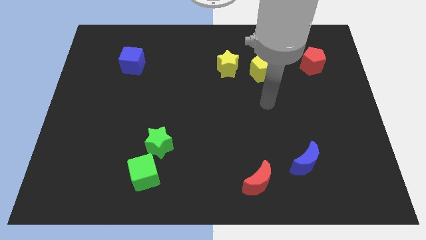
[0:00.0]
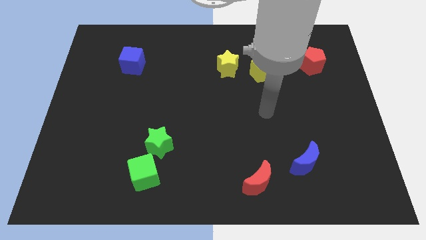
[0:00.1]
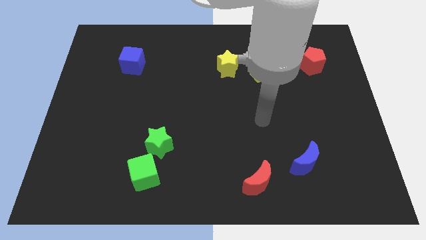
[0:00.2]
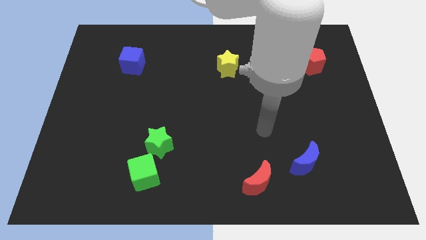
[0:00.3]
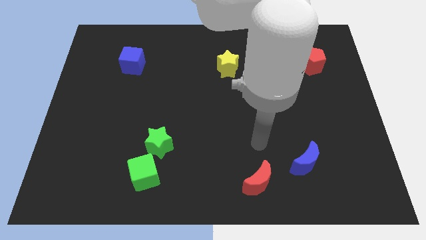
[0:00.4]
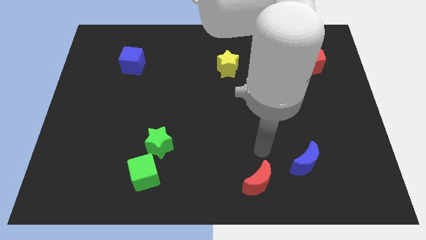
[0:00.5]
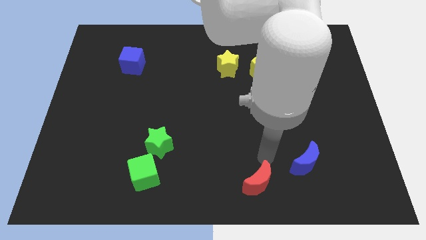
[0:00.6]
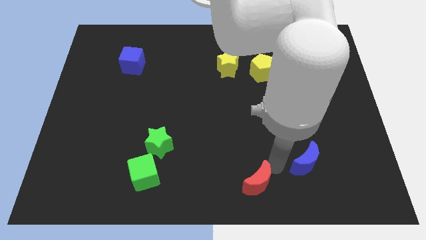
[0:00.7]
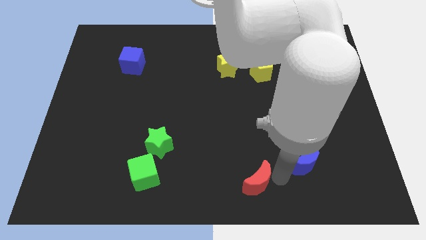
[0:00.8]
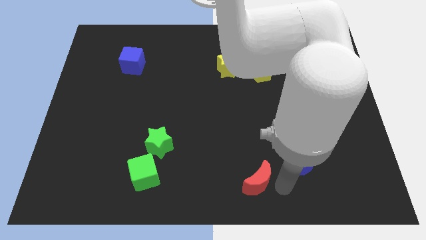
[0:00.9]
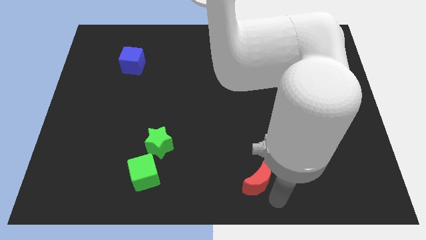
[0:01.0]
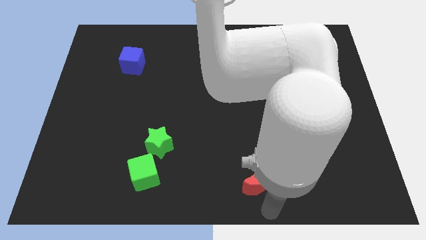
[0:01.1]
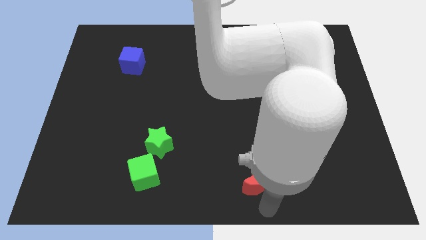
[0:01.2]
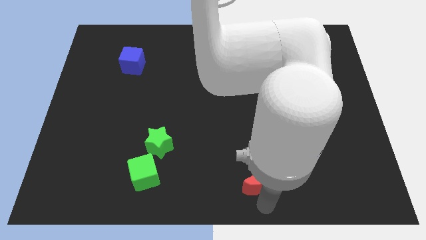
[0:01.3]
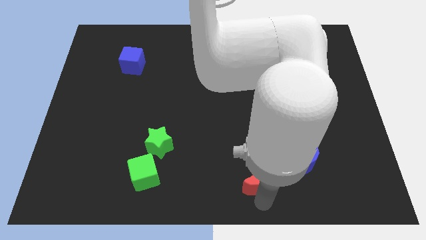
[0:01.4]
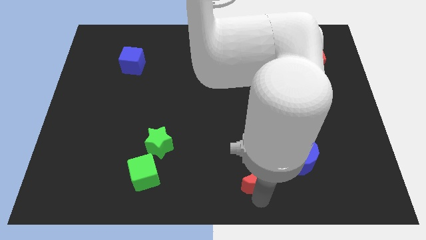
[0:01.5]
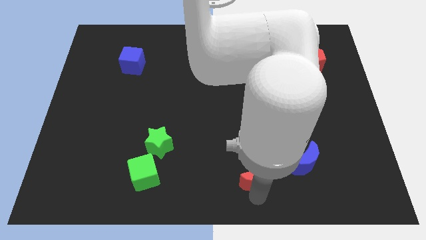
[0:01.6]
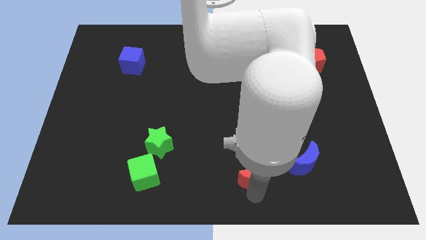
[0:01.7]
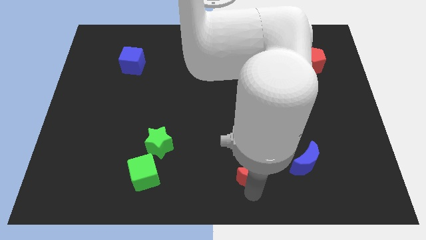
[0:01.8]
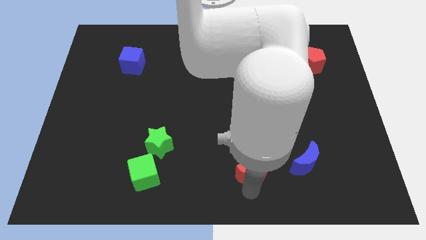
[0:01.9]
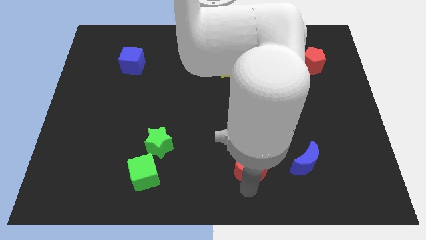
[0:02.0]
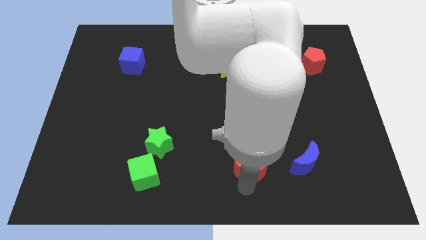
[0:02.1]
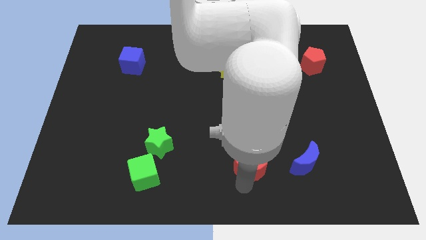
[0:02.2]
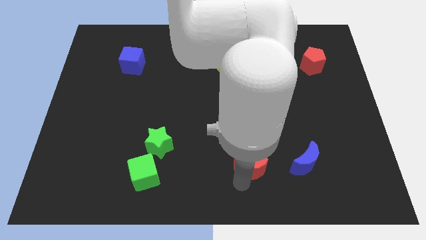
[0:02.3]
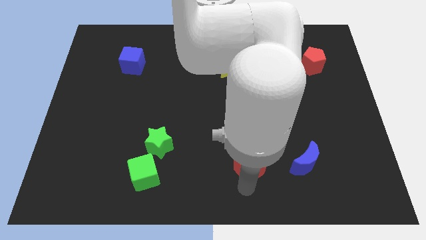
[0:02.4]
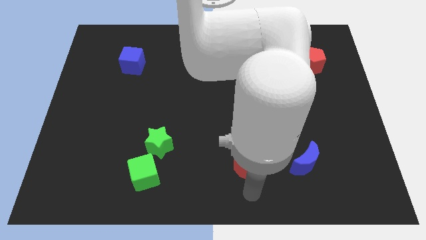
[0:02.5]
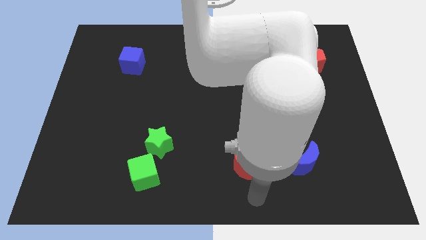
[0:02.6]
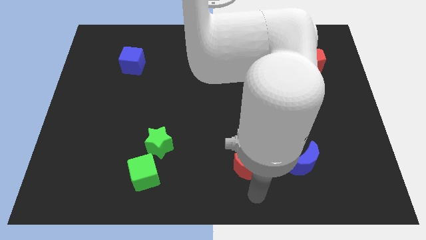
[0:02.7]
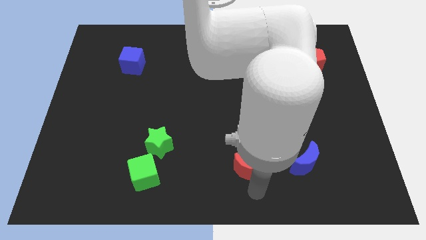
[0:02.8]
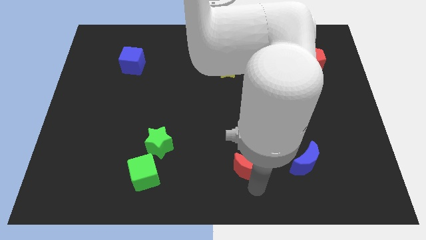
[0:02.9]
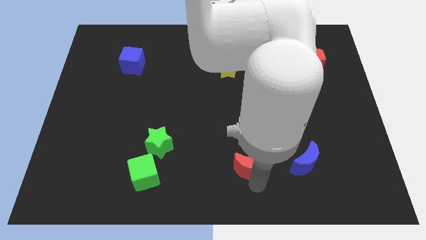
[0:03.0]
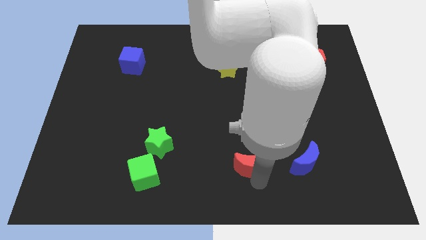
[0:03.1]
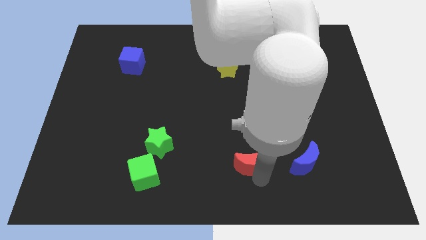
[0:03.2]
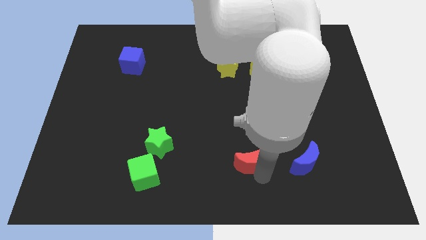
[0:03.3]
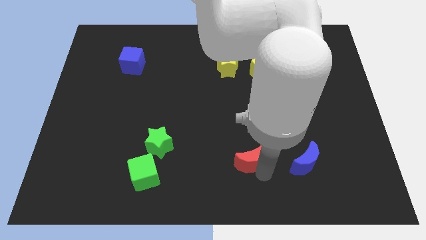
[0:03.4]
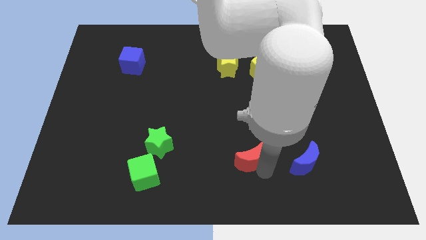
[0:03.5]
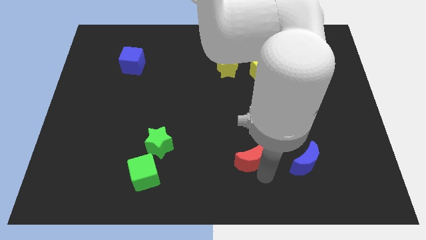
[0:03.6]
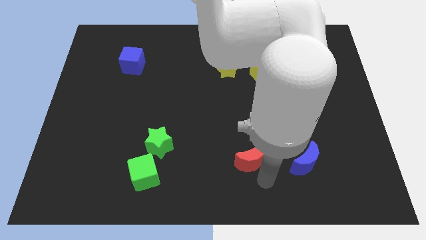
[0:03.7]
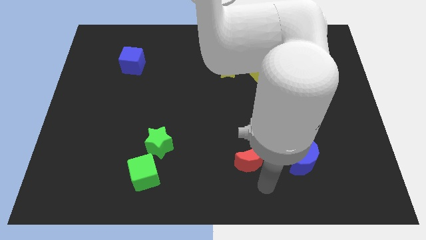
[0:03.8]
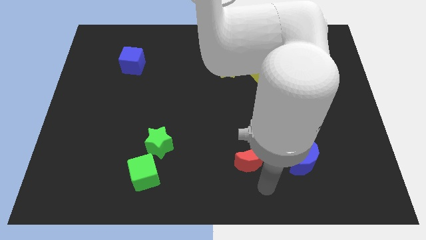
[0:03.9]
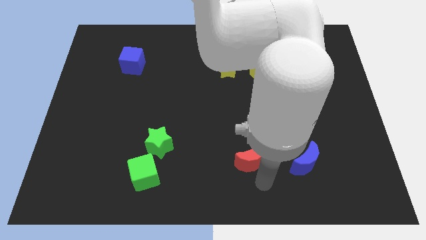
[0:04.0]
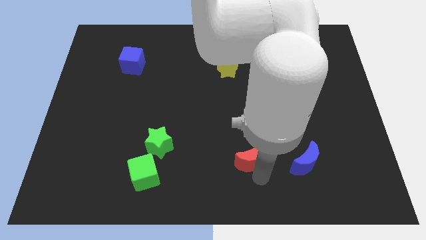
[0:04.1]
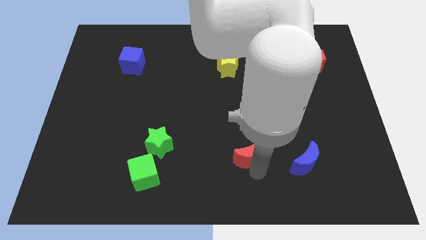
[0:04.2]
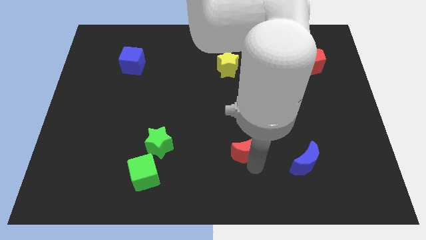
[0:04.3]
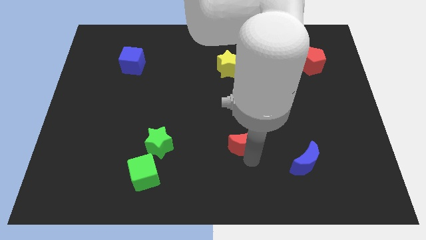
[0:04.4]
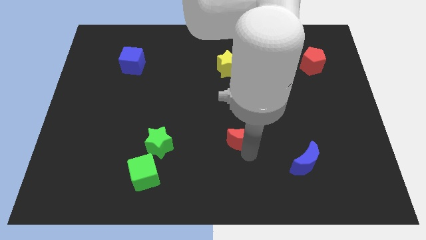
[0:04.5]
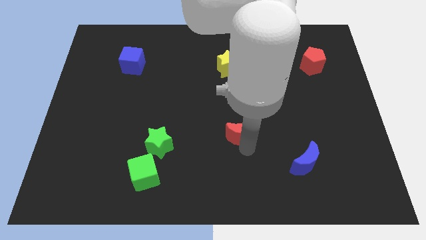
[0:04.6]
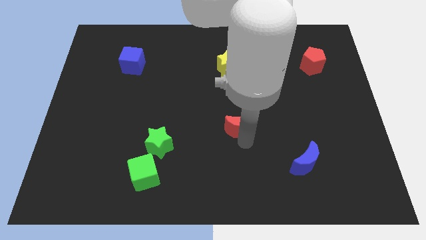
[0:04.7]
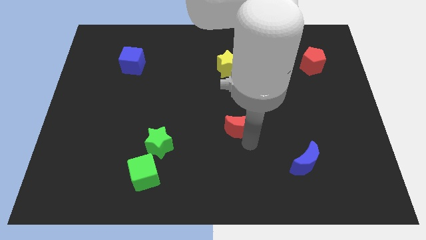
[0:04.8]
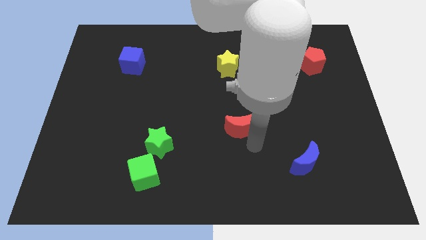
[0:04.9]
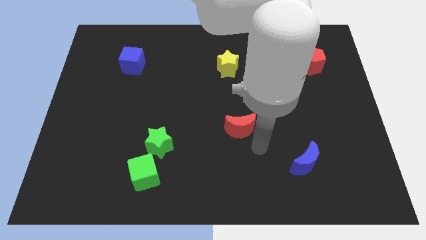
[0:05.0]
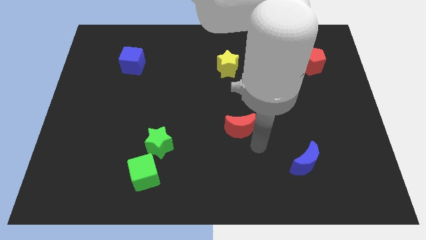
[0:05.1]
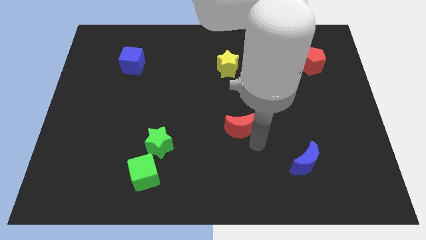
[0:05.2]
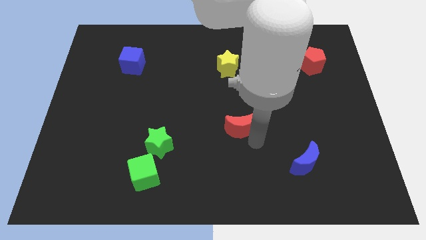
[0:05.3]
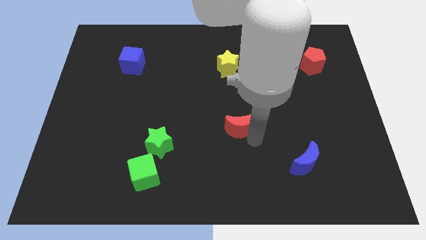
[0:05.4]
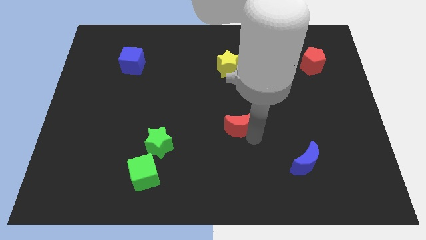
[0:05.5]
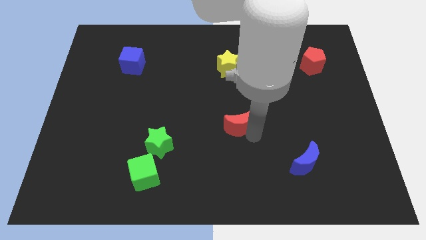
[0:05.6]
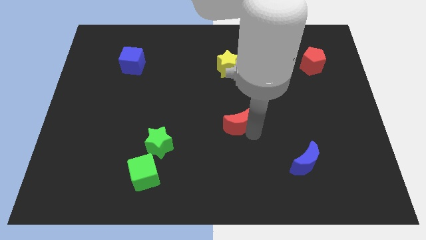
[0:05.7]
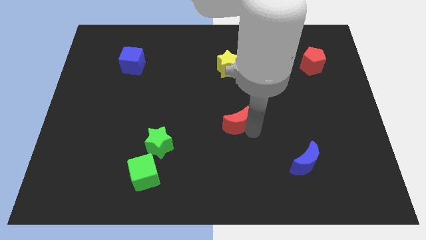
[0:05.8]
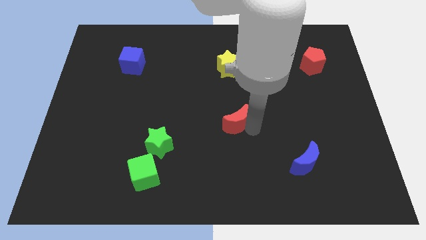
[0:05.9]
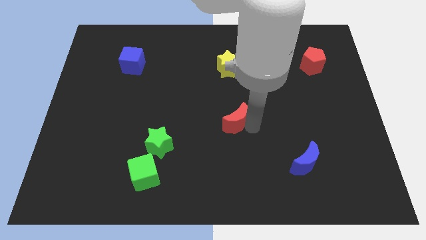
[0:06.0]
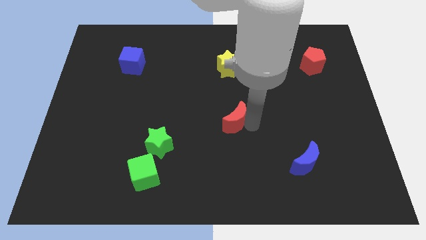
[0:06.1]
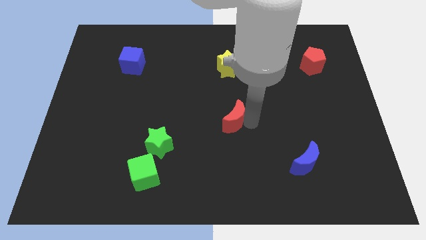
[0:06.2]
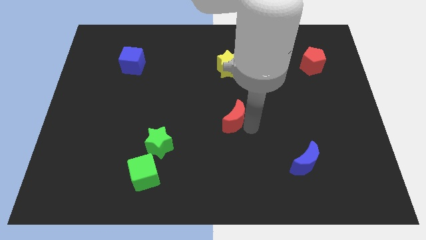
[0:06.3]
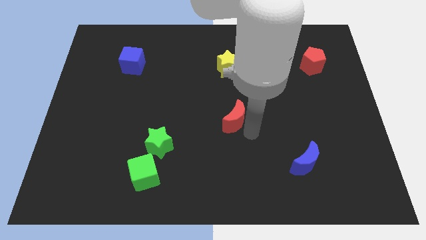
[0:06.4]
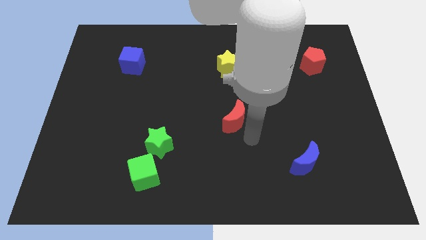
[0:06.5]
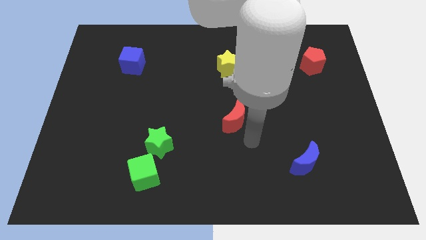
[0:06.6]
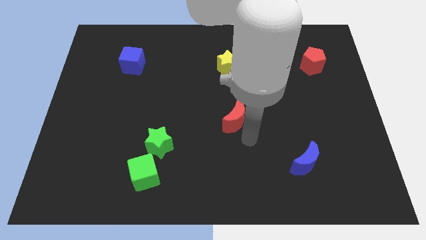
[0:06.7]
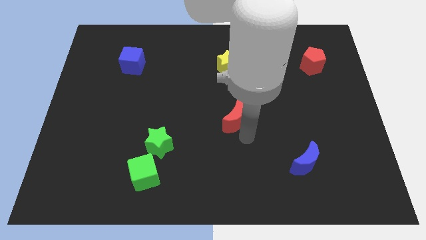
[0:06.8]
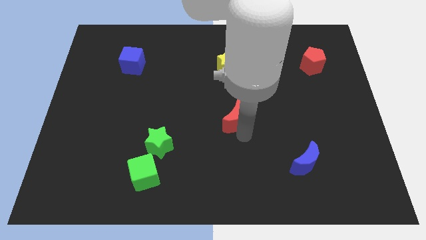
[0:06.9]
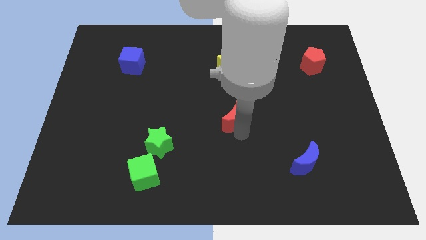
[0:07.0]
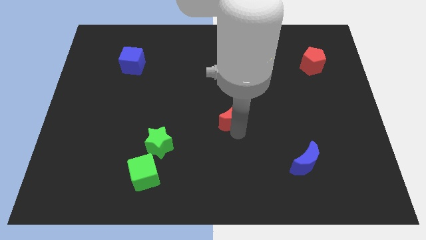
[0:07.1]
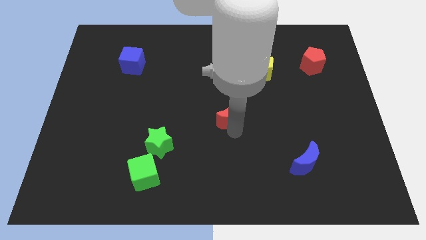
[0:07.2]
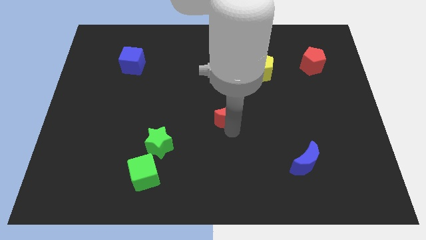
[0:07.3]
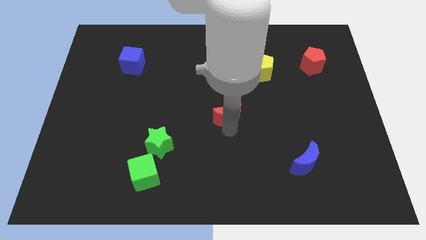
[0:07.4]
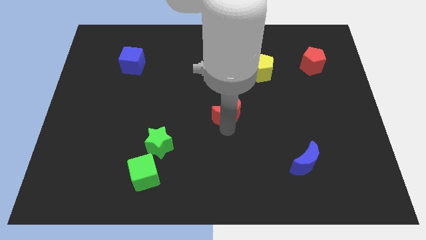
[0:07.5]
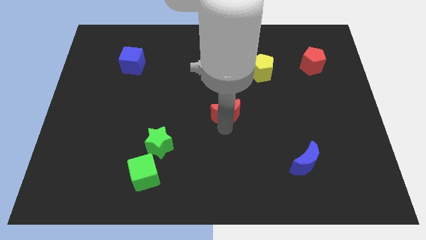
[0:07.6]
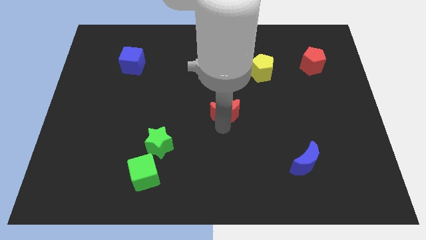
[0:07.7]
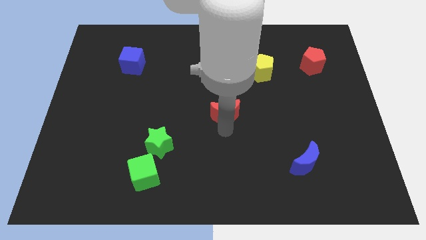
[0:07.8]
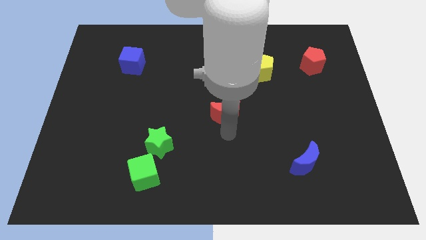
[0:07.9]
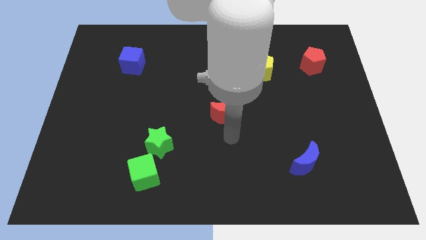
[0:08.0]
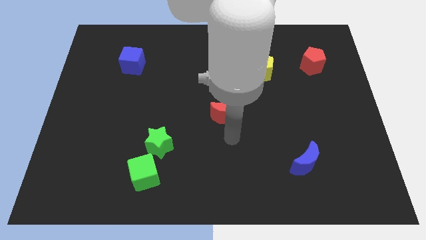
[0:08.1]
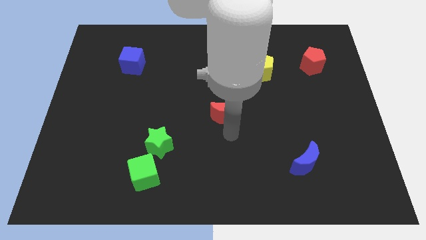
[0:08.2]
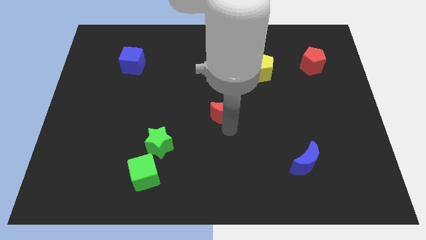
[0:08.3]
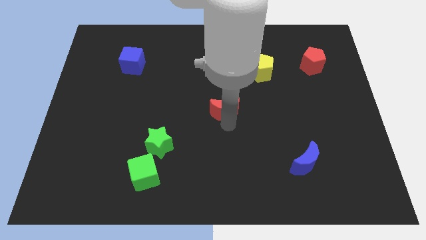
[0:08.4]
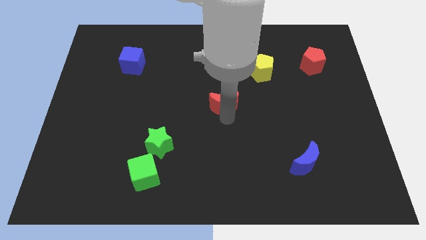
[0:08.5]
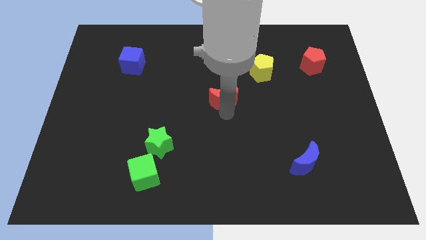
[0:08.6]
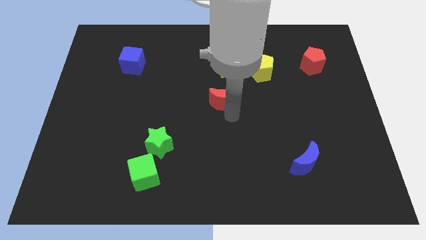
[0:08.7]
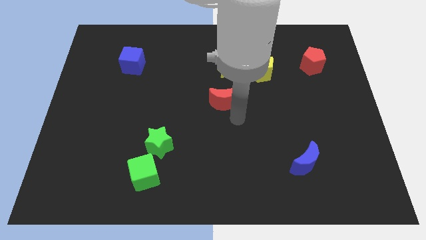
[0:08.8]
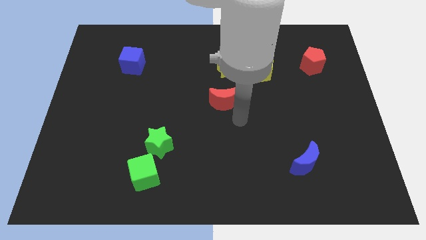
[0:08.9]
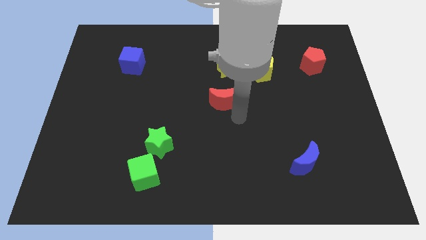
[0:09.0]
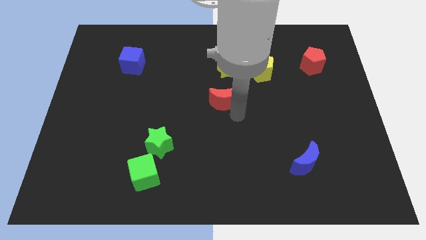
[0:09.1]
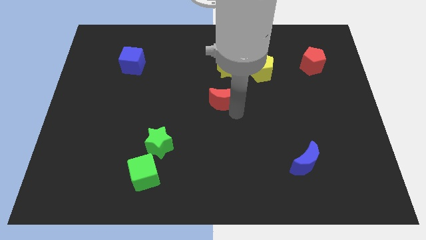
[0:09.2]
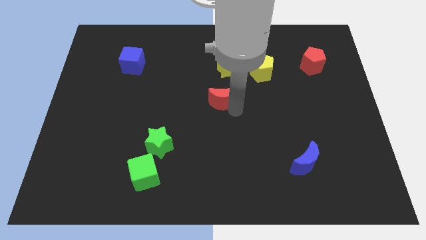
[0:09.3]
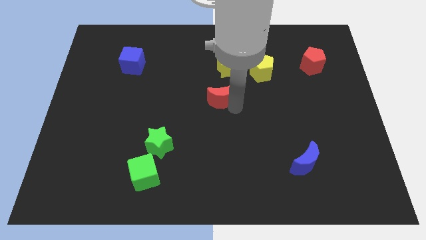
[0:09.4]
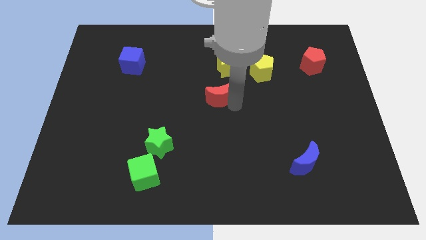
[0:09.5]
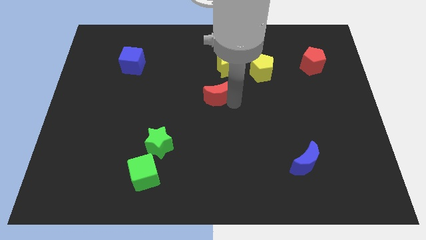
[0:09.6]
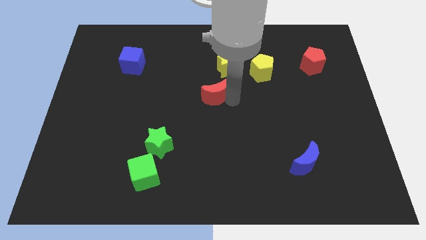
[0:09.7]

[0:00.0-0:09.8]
put the red moon to the bottom left side of the yellow star
